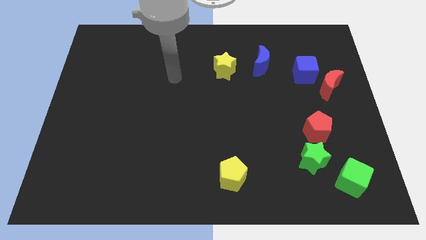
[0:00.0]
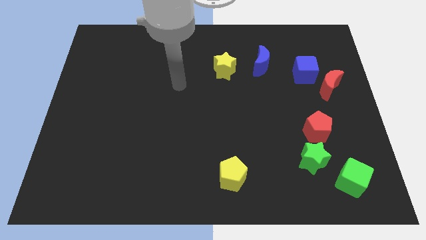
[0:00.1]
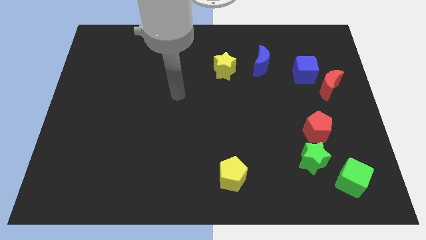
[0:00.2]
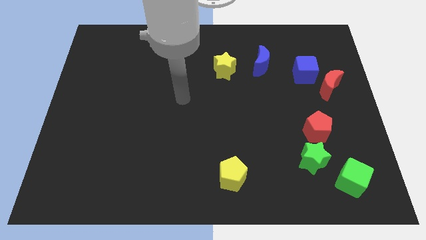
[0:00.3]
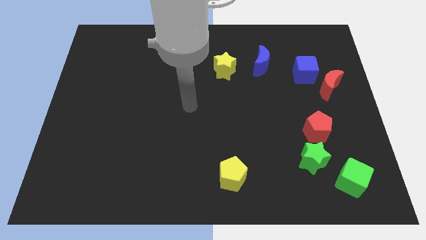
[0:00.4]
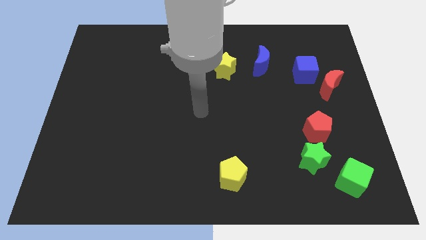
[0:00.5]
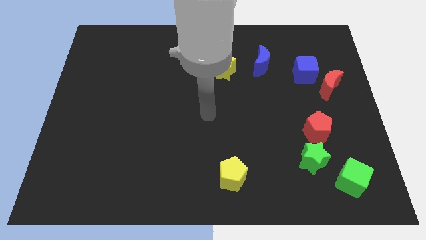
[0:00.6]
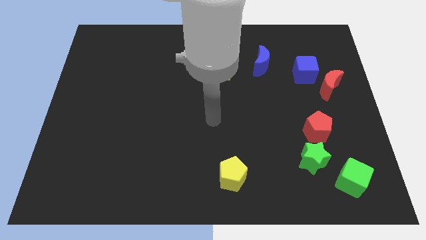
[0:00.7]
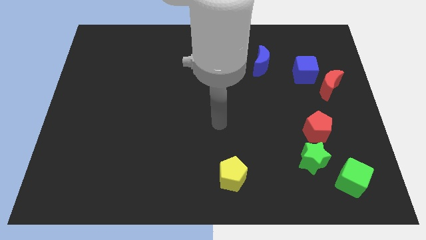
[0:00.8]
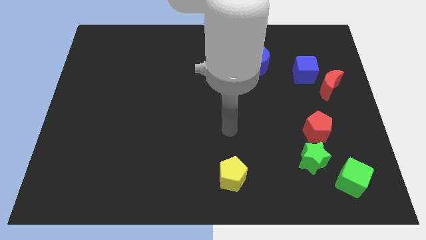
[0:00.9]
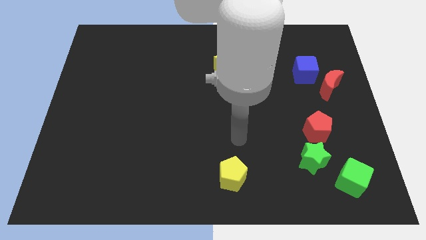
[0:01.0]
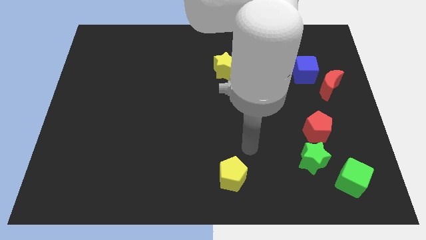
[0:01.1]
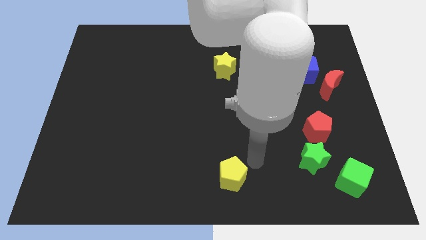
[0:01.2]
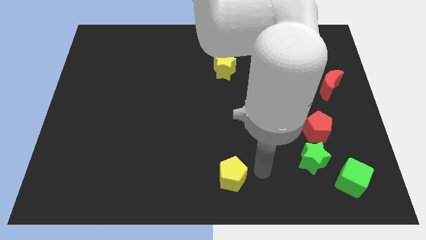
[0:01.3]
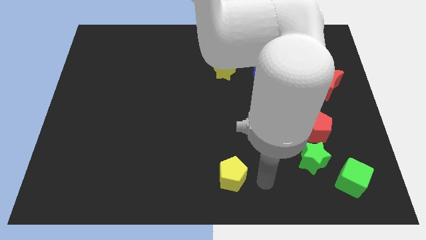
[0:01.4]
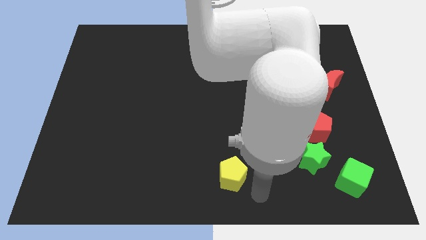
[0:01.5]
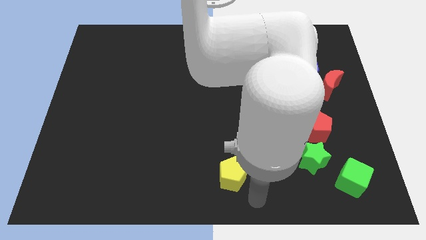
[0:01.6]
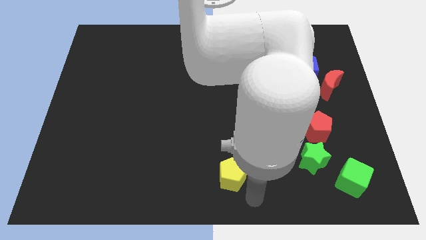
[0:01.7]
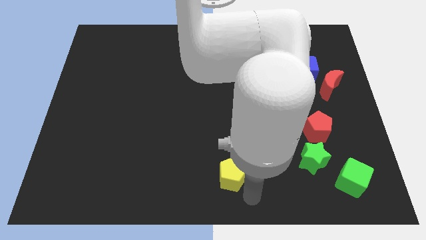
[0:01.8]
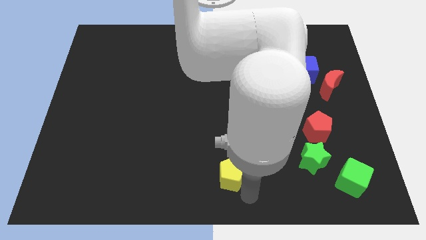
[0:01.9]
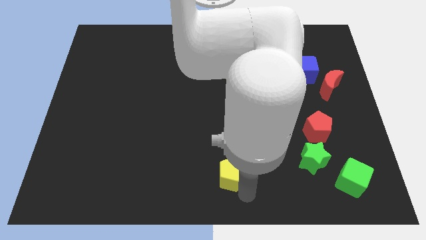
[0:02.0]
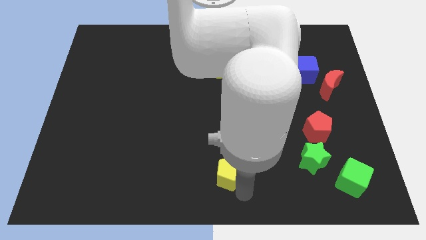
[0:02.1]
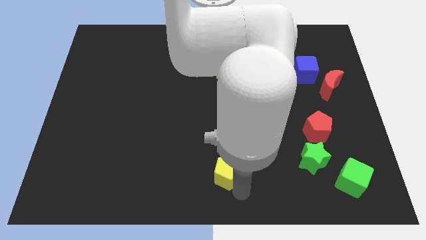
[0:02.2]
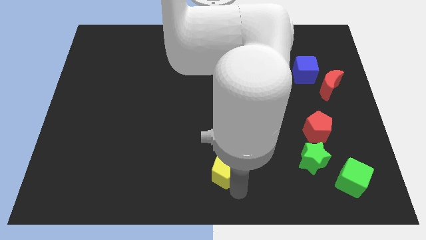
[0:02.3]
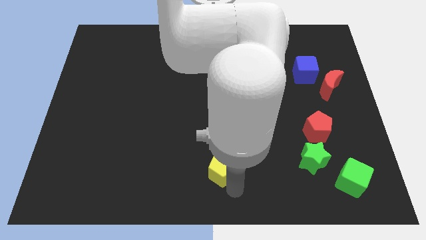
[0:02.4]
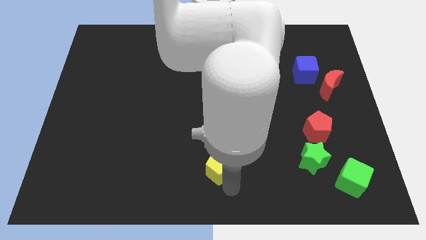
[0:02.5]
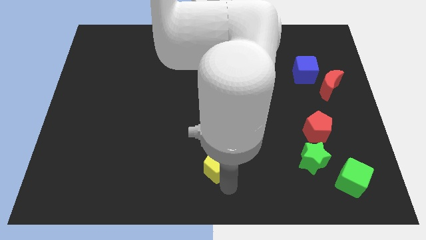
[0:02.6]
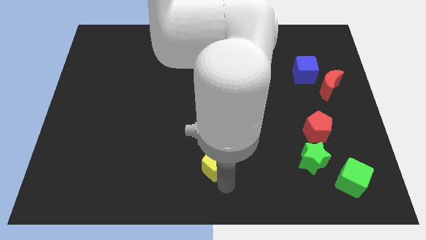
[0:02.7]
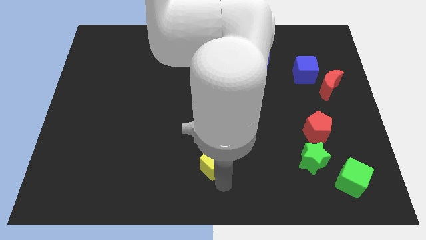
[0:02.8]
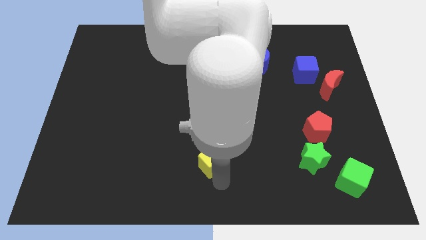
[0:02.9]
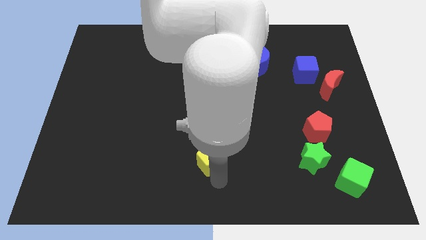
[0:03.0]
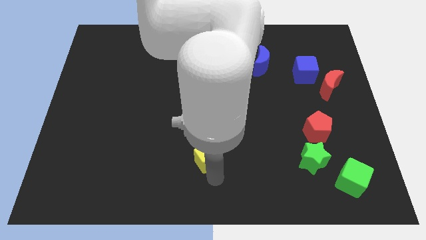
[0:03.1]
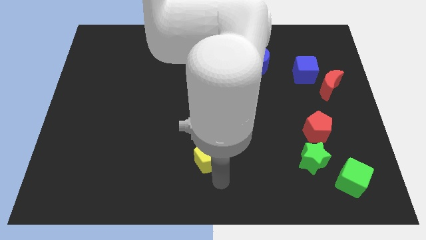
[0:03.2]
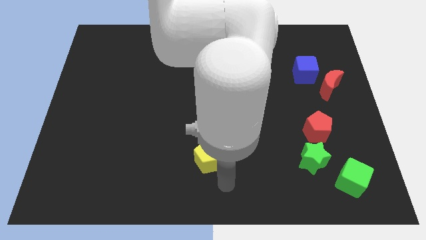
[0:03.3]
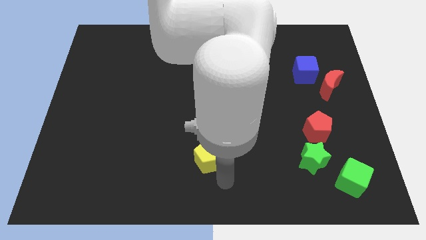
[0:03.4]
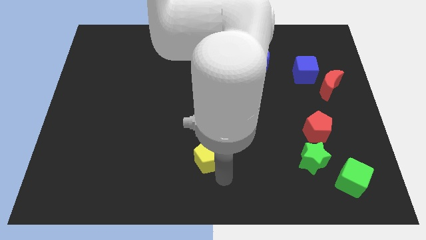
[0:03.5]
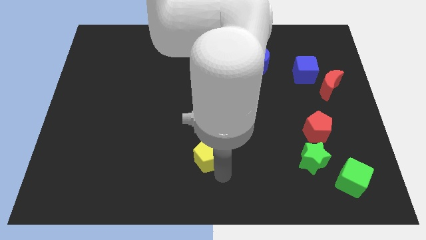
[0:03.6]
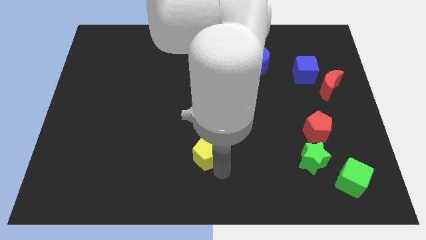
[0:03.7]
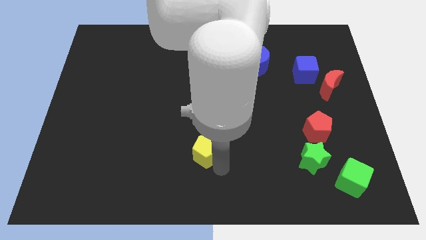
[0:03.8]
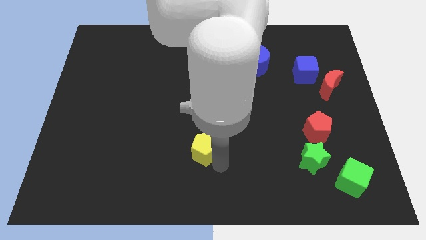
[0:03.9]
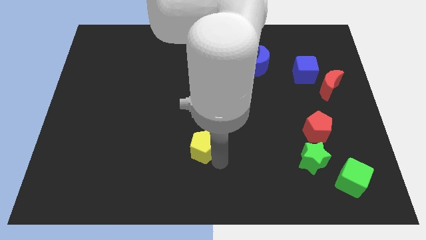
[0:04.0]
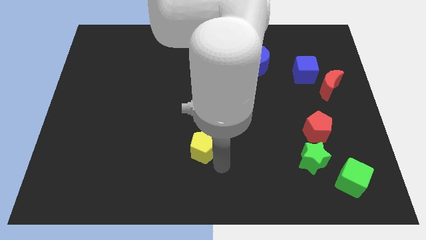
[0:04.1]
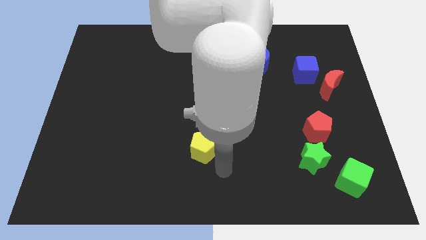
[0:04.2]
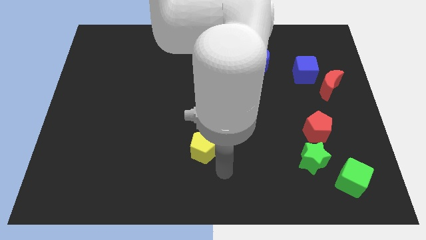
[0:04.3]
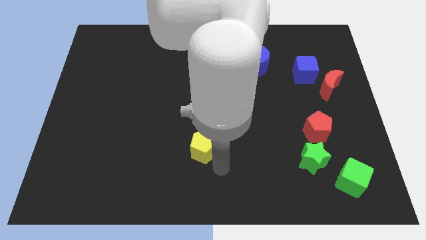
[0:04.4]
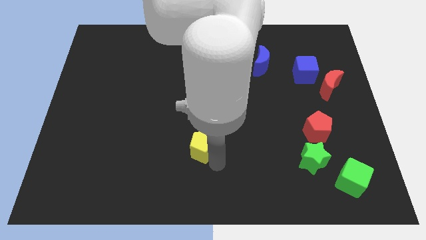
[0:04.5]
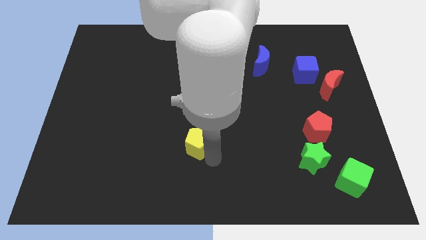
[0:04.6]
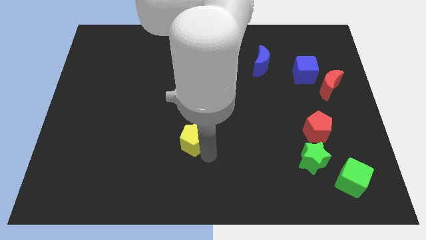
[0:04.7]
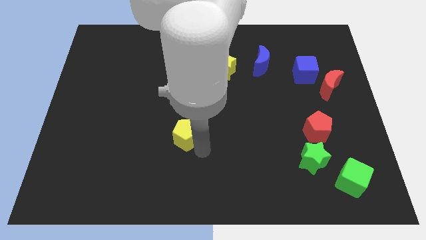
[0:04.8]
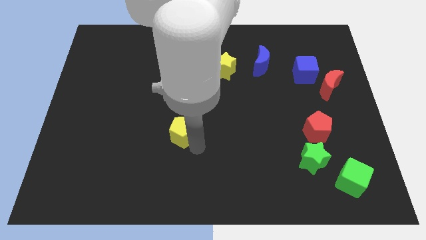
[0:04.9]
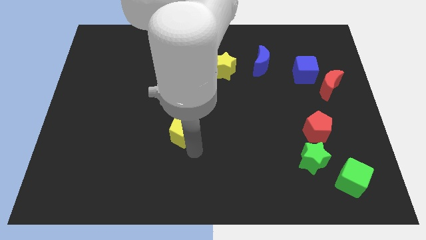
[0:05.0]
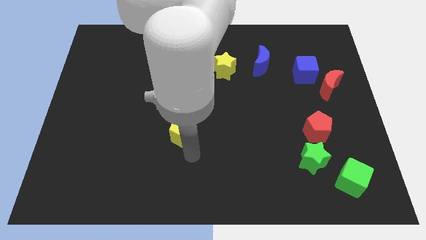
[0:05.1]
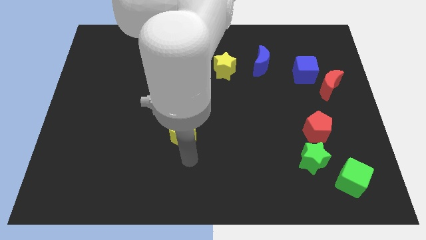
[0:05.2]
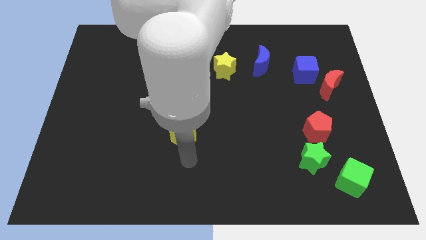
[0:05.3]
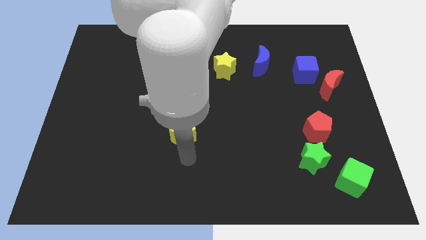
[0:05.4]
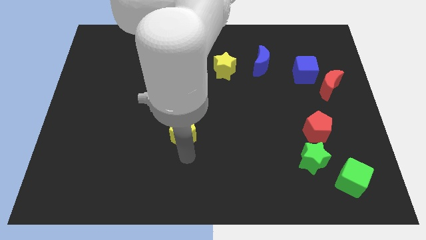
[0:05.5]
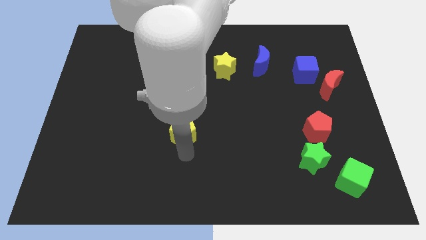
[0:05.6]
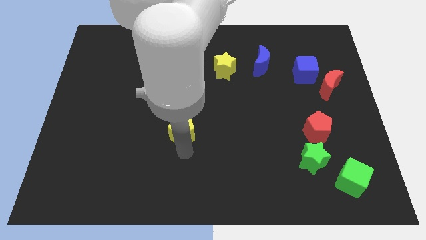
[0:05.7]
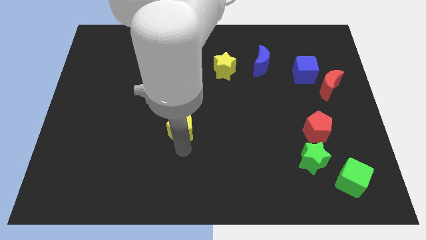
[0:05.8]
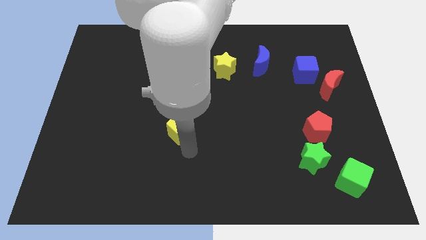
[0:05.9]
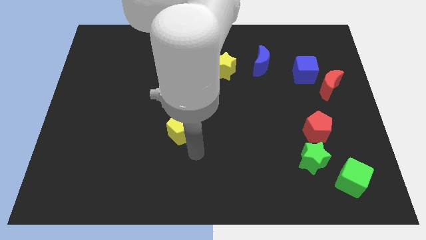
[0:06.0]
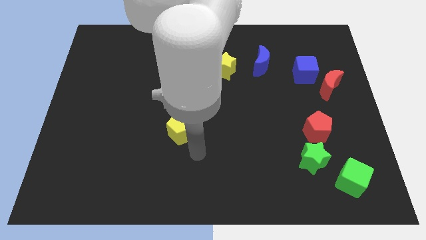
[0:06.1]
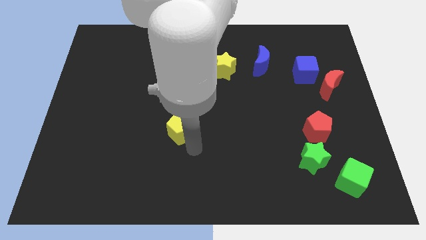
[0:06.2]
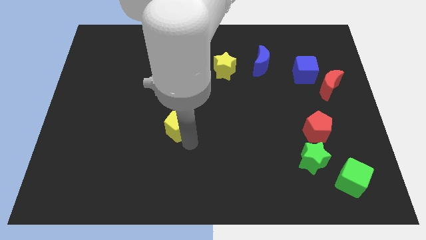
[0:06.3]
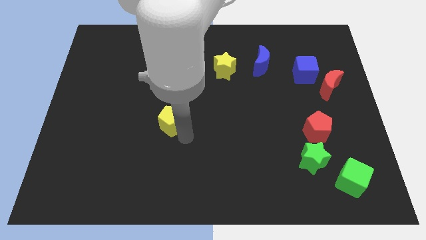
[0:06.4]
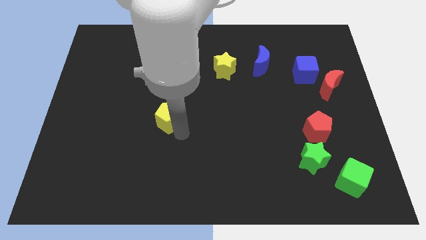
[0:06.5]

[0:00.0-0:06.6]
slide the yellow pentagon up and then to the left

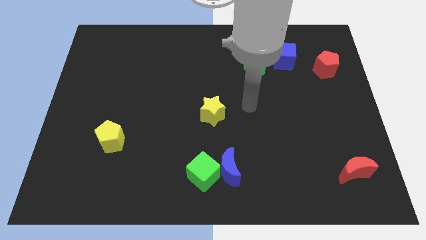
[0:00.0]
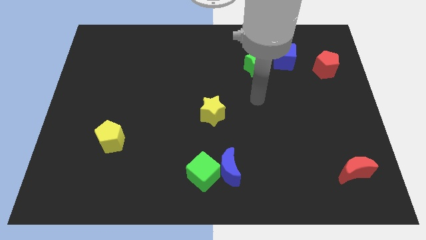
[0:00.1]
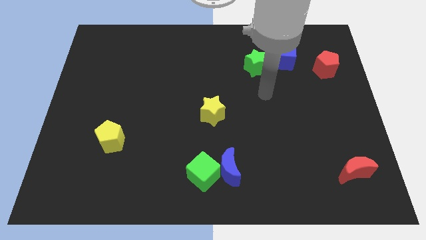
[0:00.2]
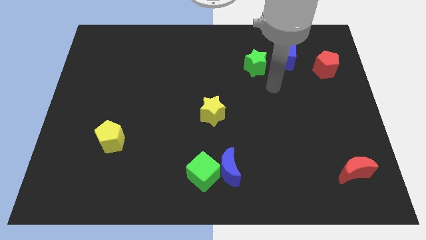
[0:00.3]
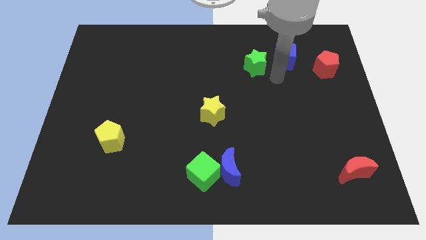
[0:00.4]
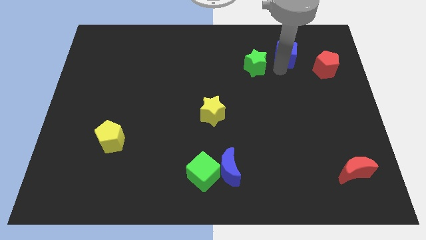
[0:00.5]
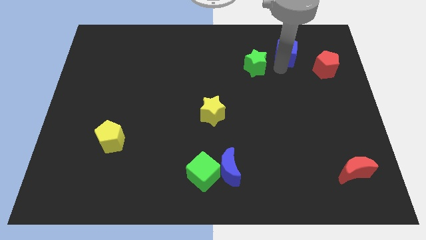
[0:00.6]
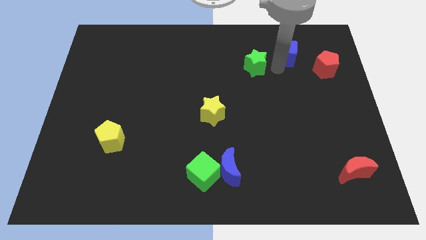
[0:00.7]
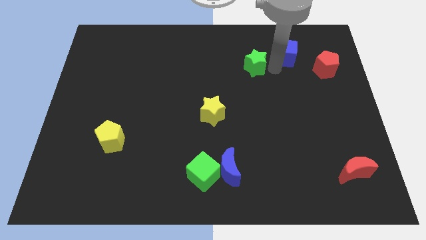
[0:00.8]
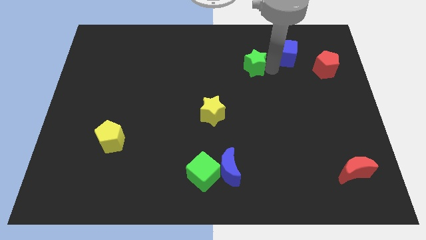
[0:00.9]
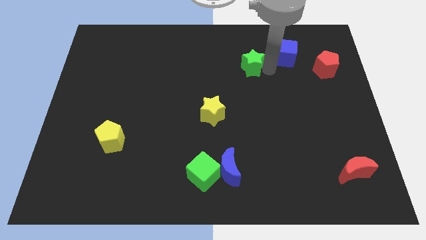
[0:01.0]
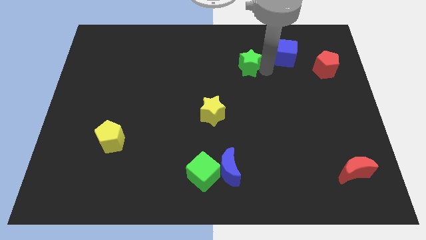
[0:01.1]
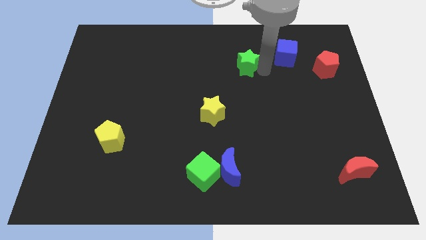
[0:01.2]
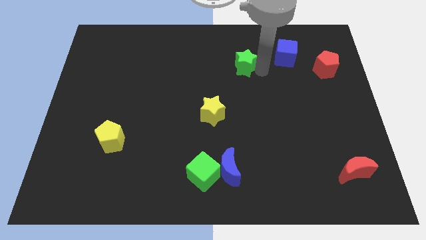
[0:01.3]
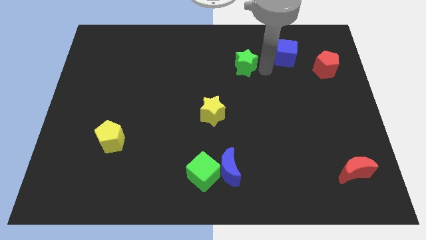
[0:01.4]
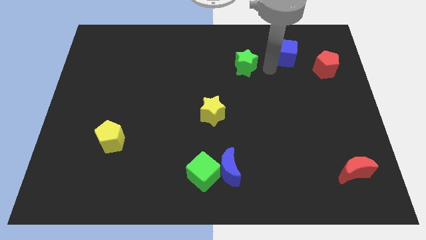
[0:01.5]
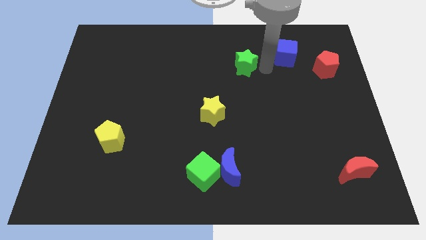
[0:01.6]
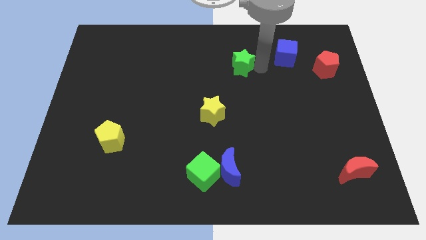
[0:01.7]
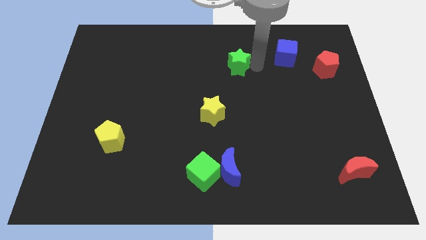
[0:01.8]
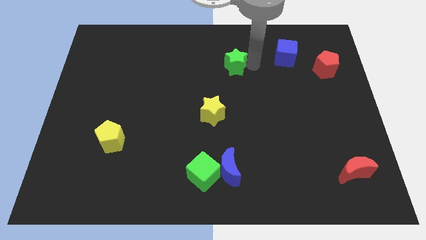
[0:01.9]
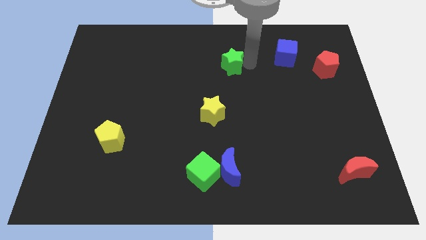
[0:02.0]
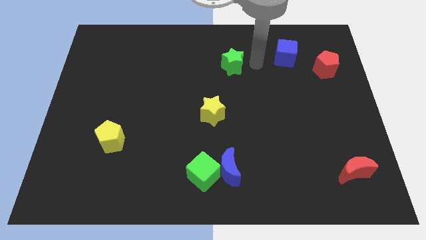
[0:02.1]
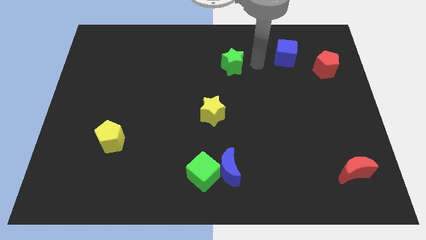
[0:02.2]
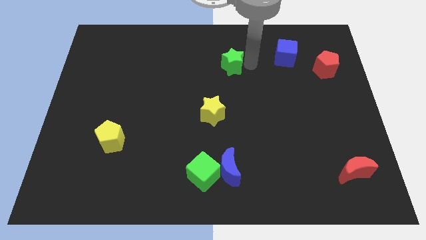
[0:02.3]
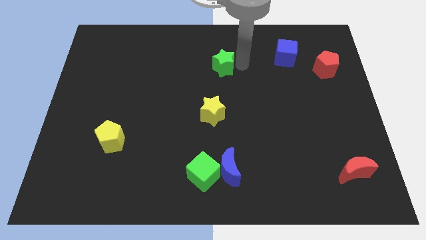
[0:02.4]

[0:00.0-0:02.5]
move the green star somewhat left
